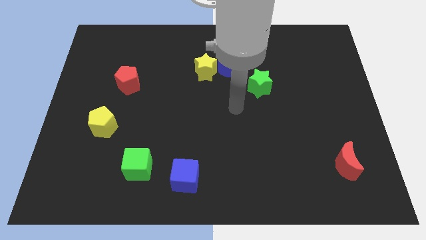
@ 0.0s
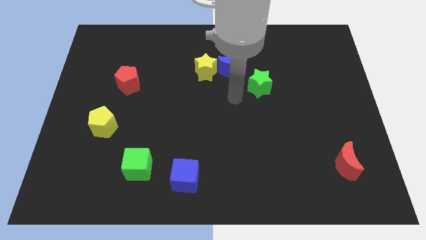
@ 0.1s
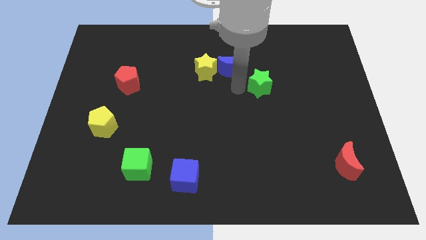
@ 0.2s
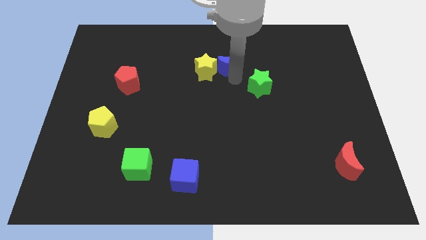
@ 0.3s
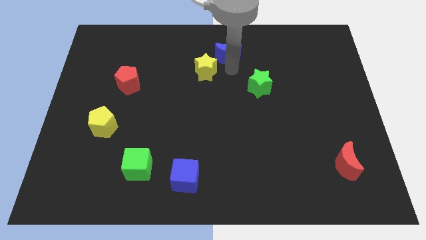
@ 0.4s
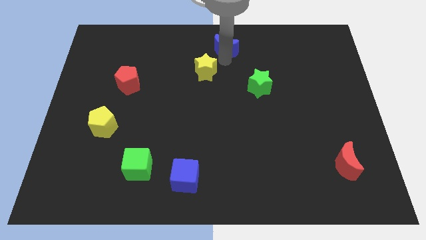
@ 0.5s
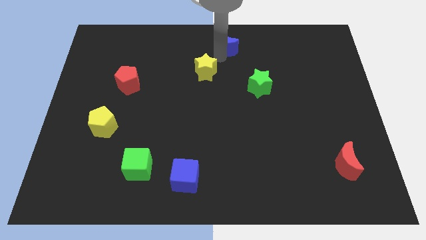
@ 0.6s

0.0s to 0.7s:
pull the yellow star apart from the blue moon

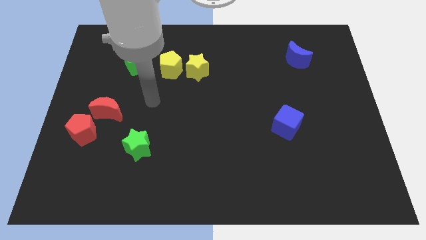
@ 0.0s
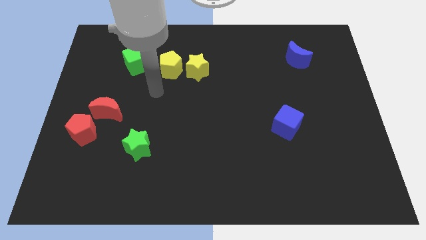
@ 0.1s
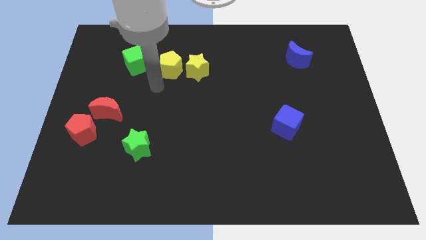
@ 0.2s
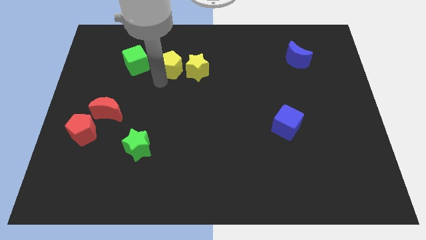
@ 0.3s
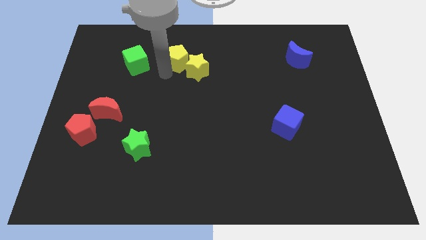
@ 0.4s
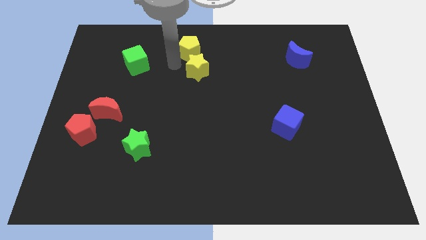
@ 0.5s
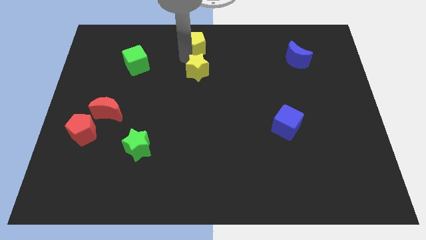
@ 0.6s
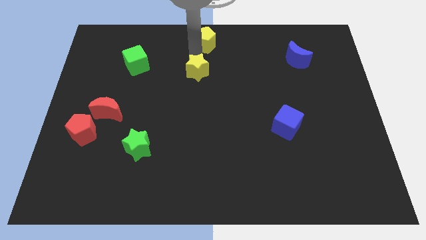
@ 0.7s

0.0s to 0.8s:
separate the yellow star from the yellow pentagon

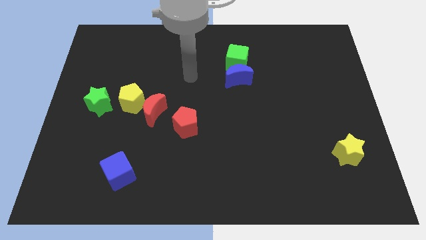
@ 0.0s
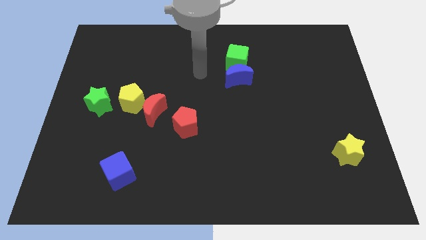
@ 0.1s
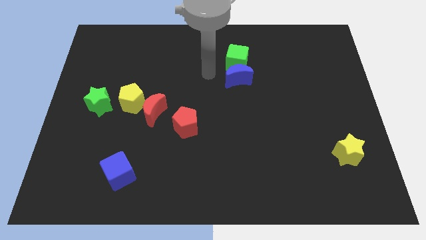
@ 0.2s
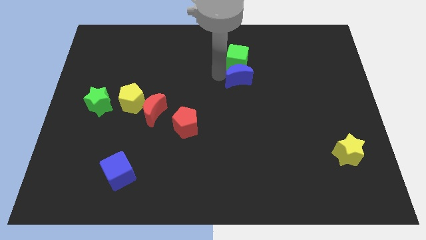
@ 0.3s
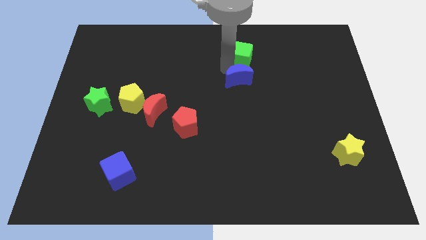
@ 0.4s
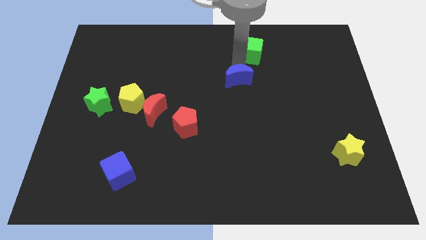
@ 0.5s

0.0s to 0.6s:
separate the blue moon from the green cube

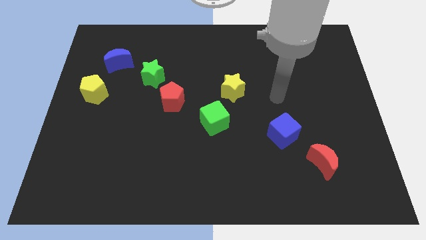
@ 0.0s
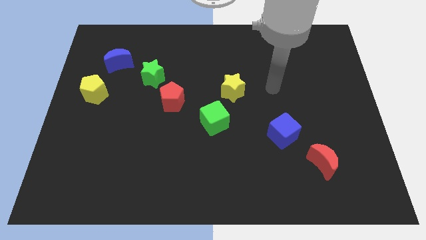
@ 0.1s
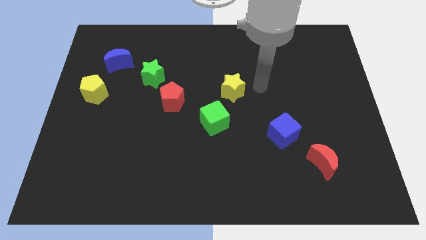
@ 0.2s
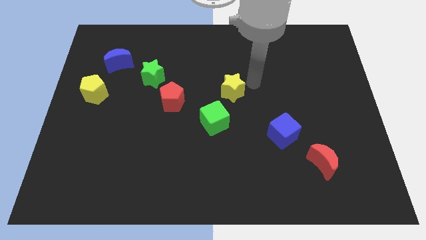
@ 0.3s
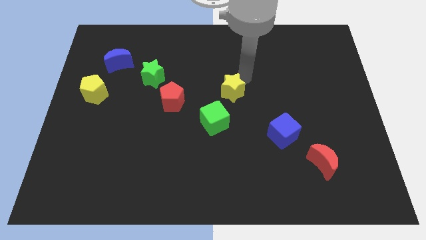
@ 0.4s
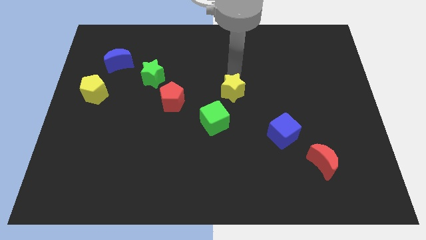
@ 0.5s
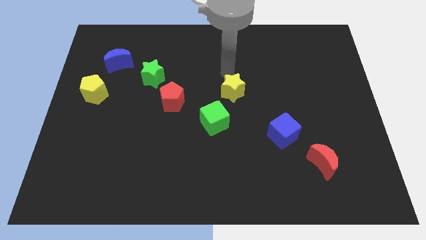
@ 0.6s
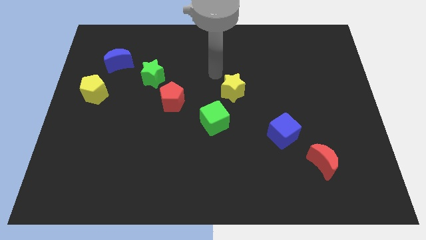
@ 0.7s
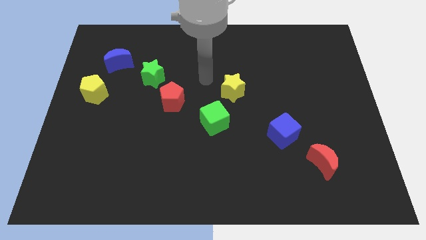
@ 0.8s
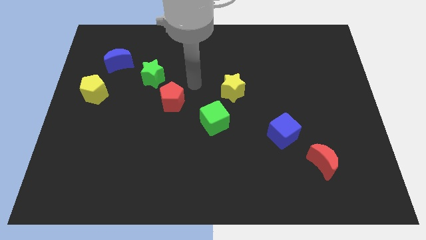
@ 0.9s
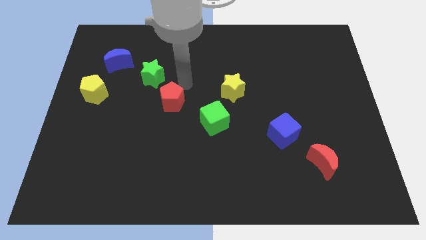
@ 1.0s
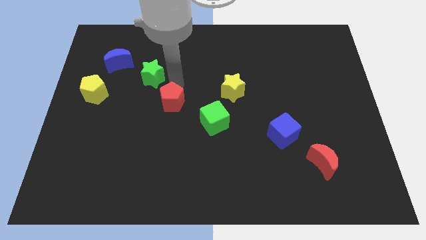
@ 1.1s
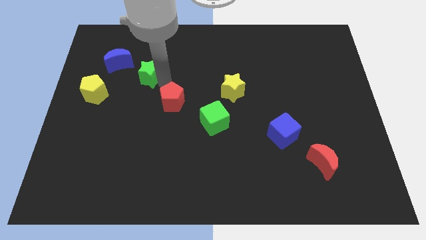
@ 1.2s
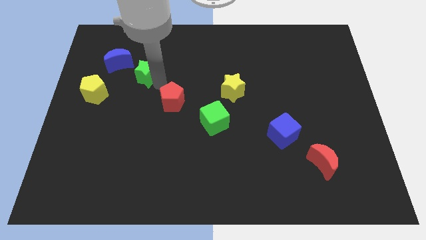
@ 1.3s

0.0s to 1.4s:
pull the red pentagon apart from the green star

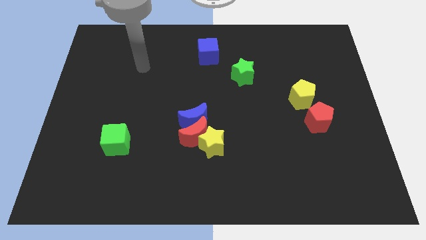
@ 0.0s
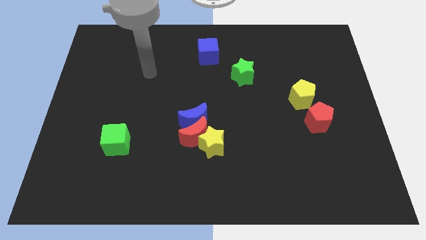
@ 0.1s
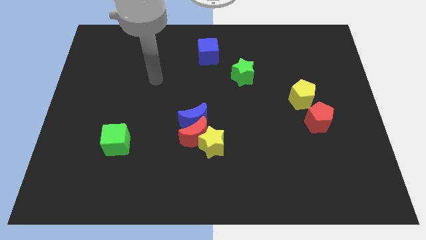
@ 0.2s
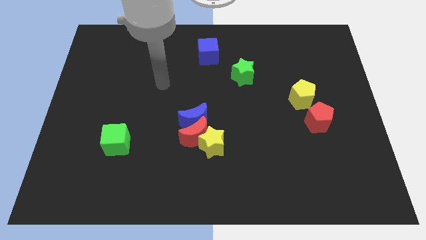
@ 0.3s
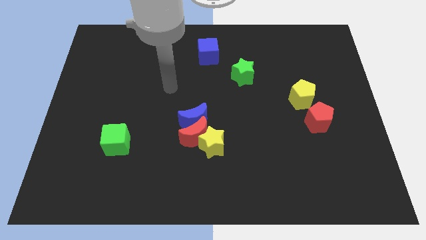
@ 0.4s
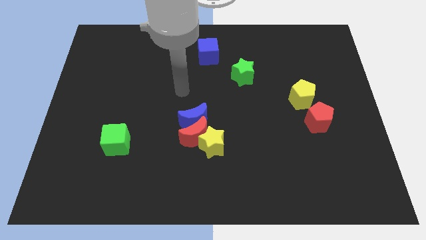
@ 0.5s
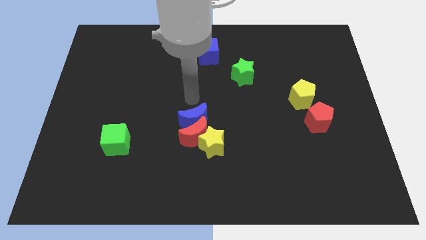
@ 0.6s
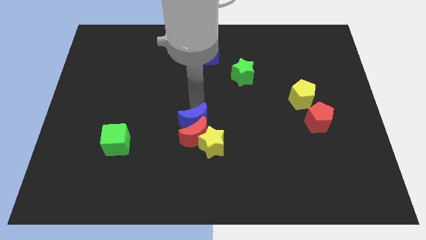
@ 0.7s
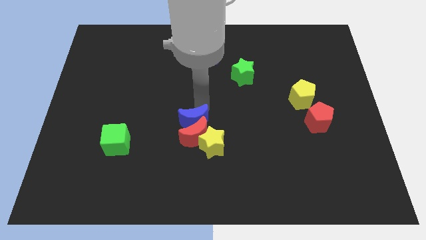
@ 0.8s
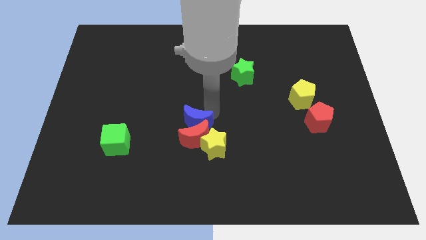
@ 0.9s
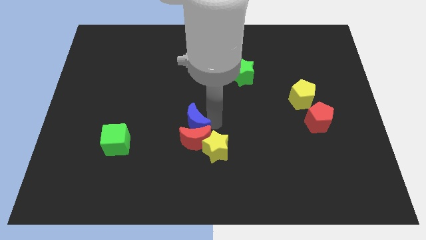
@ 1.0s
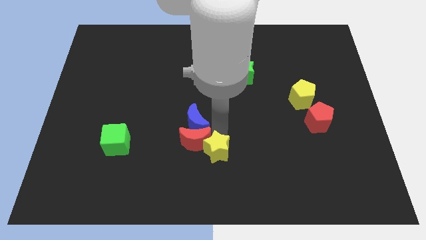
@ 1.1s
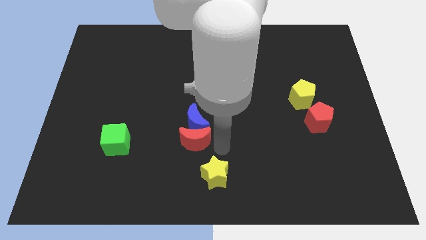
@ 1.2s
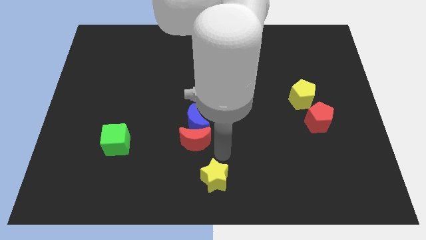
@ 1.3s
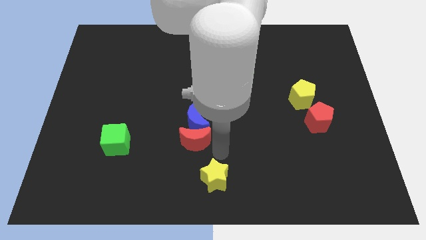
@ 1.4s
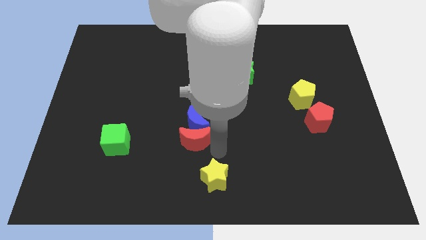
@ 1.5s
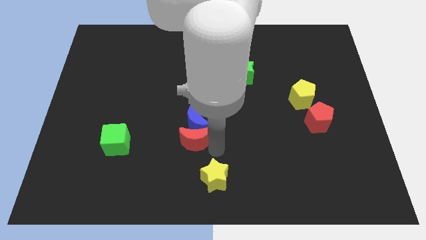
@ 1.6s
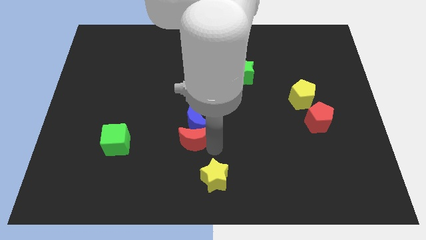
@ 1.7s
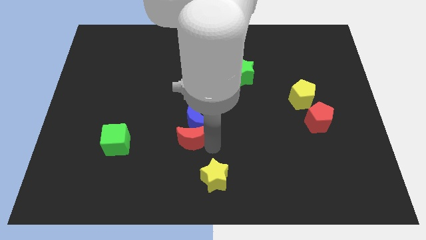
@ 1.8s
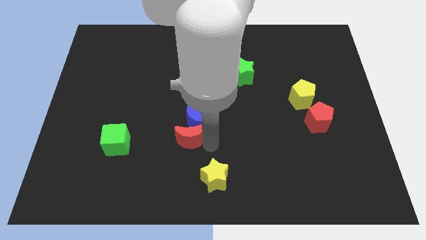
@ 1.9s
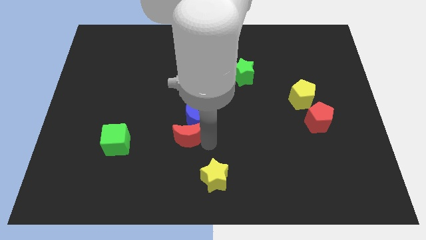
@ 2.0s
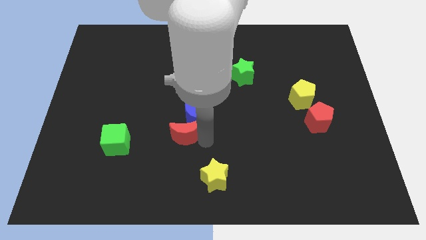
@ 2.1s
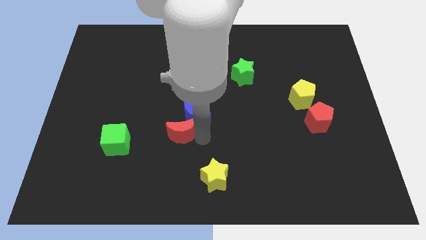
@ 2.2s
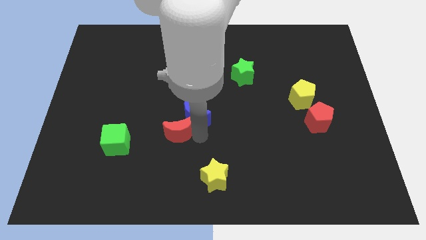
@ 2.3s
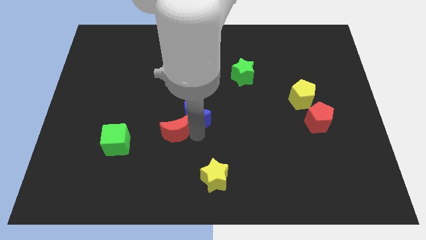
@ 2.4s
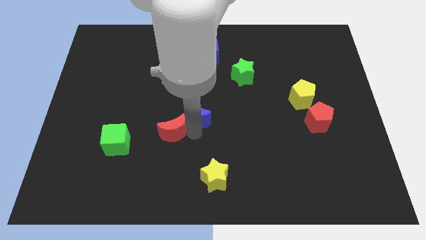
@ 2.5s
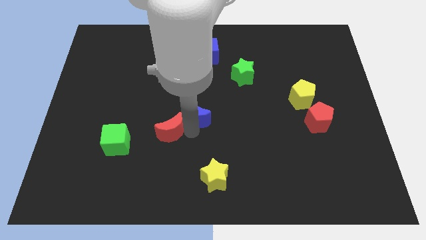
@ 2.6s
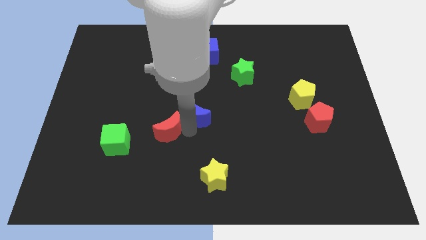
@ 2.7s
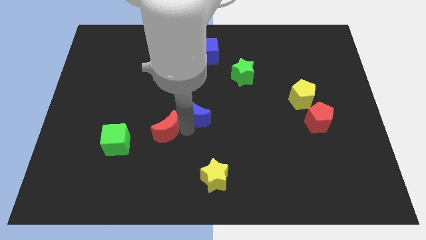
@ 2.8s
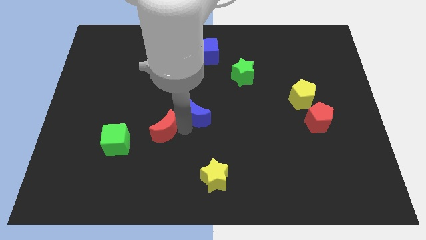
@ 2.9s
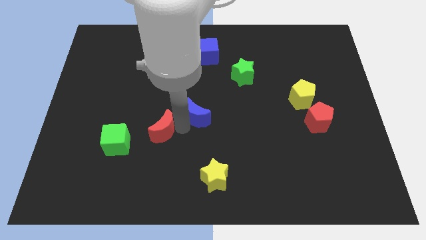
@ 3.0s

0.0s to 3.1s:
move the red moon away from the blue moon and yellow star

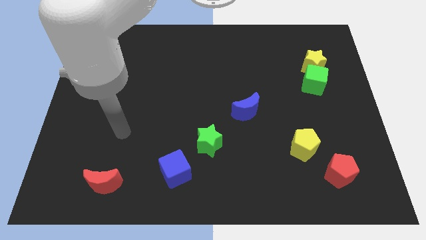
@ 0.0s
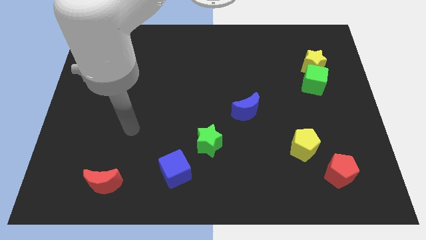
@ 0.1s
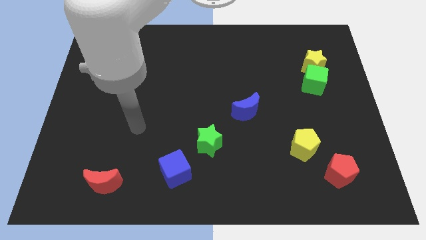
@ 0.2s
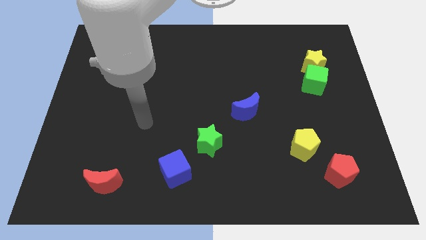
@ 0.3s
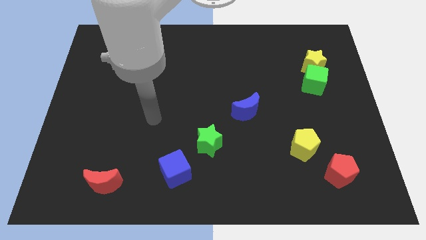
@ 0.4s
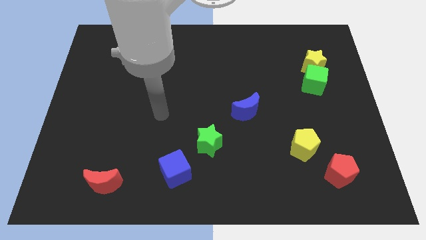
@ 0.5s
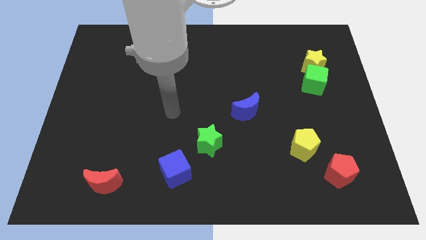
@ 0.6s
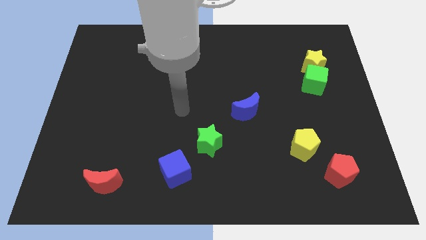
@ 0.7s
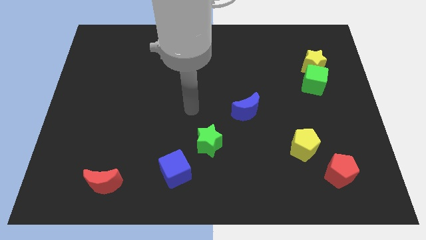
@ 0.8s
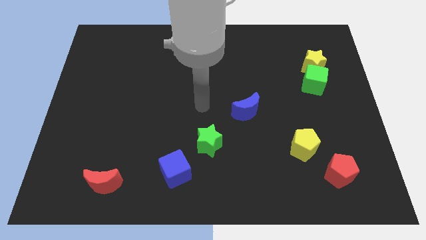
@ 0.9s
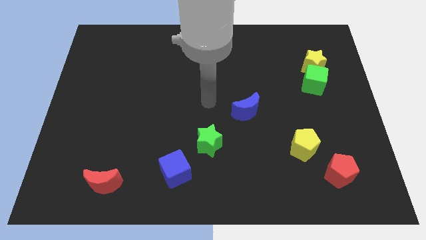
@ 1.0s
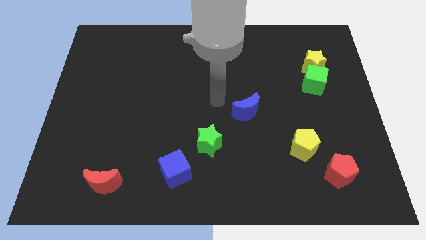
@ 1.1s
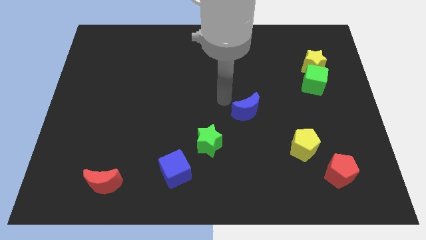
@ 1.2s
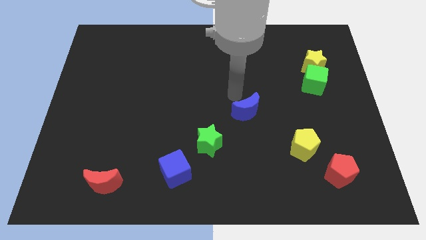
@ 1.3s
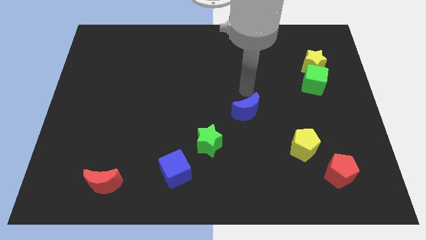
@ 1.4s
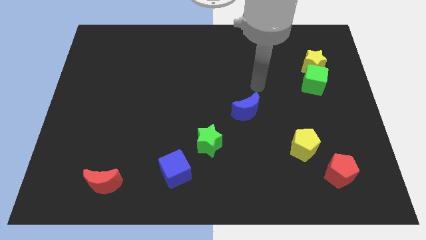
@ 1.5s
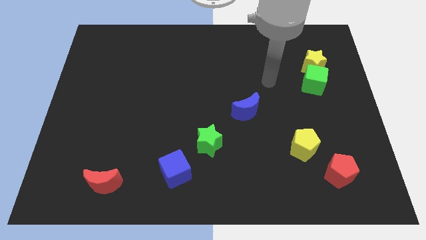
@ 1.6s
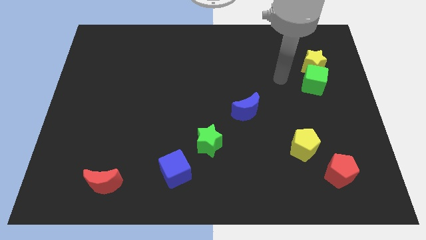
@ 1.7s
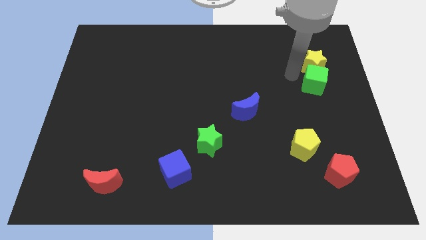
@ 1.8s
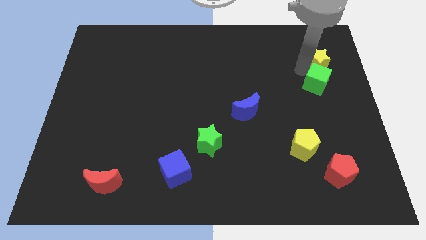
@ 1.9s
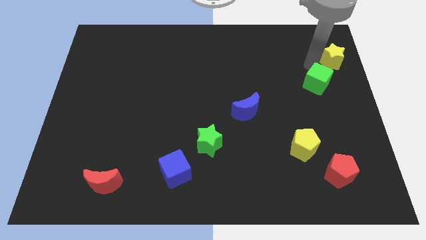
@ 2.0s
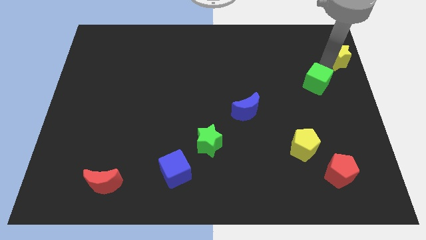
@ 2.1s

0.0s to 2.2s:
separate the green cube from the yellow star

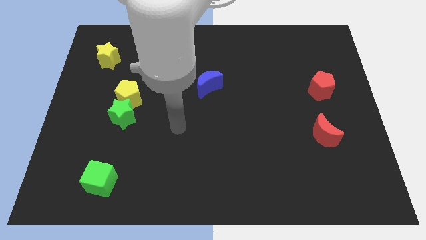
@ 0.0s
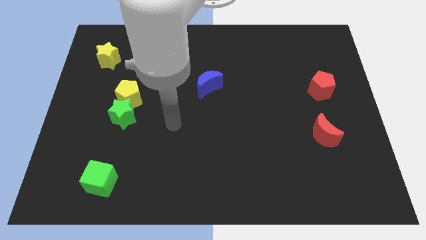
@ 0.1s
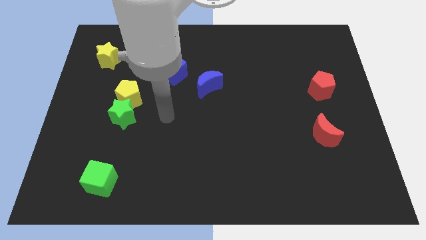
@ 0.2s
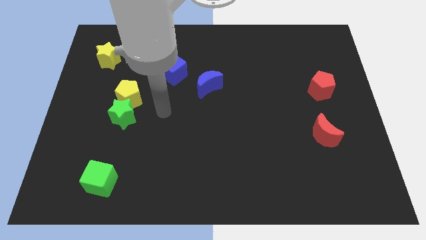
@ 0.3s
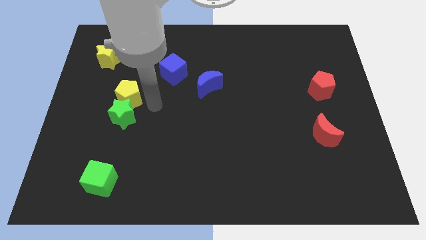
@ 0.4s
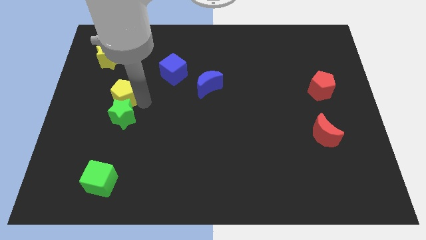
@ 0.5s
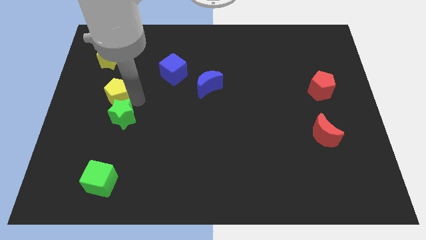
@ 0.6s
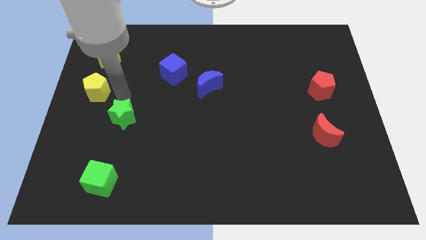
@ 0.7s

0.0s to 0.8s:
pull the green star apart from the yellow pentagon
